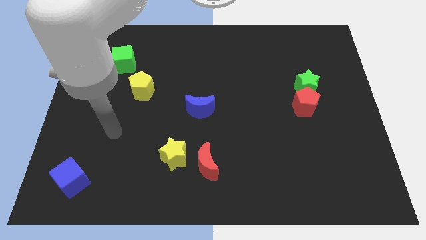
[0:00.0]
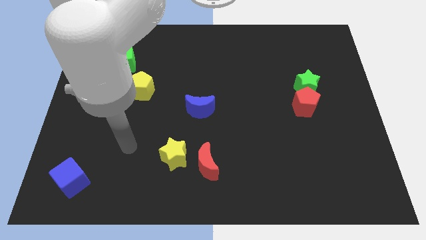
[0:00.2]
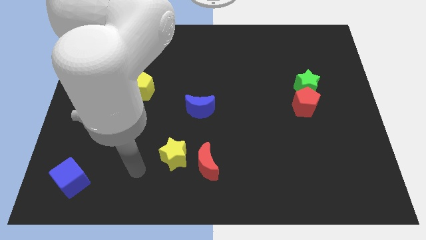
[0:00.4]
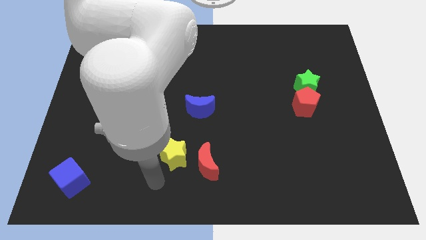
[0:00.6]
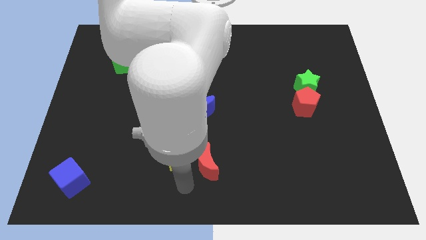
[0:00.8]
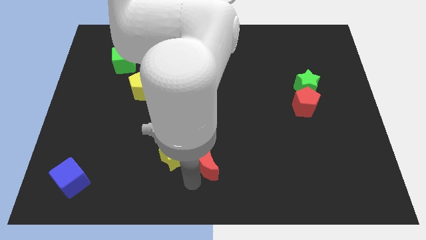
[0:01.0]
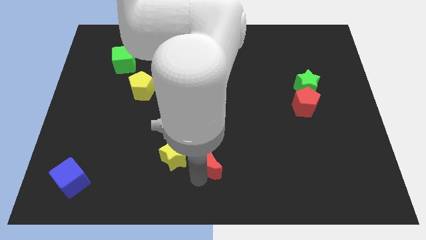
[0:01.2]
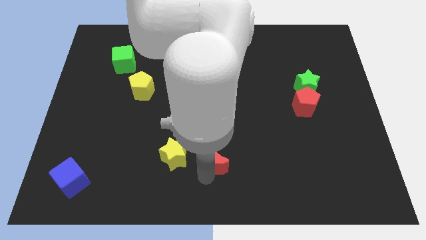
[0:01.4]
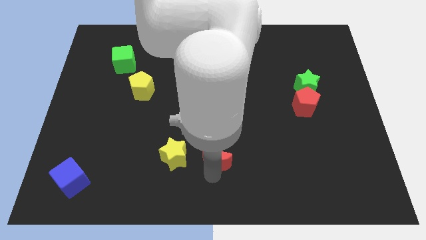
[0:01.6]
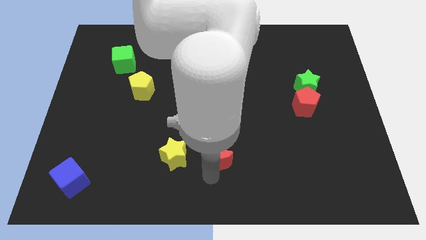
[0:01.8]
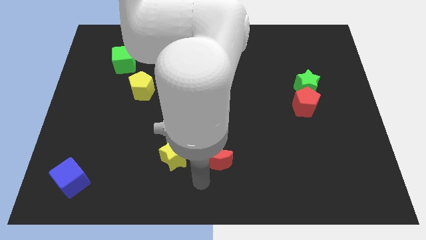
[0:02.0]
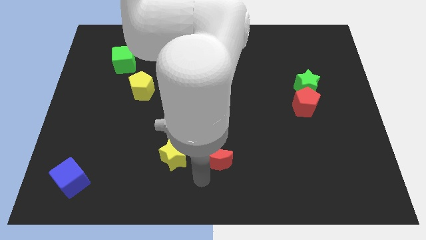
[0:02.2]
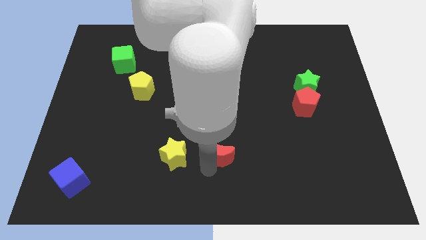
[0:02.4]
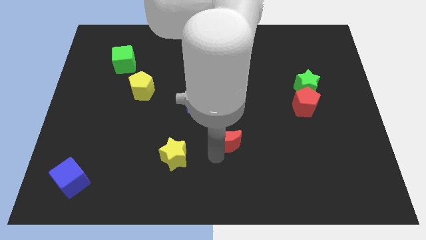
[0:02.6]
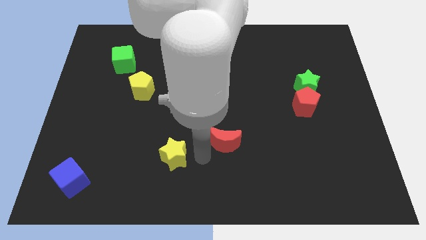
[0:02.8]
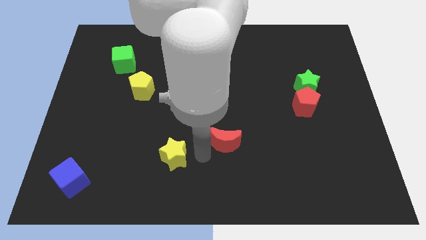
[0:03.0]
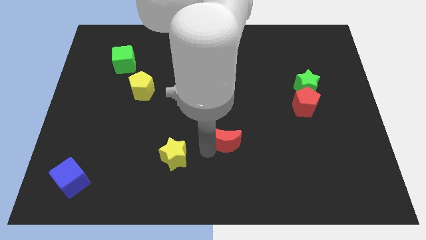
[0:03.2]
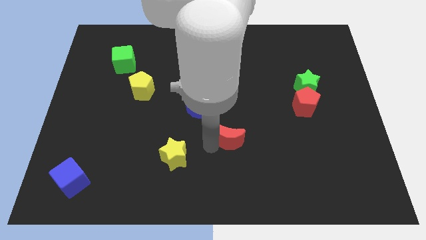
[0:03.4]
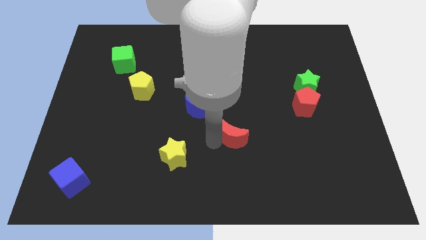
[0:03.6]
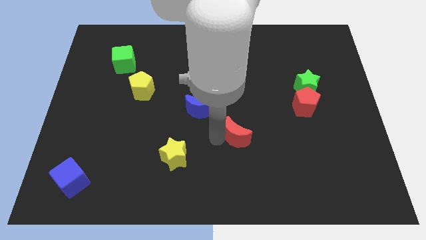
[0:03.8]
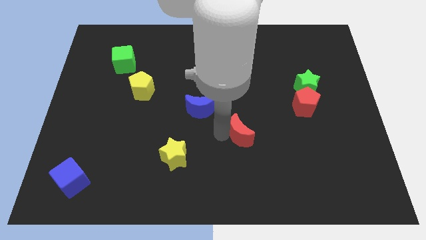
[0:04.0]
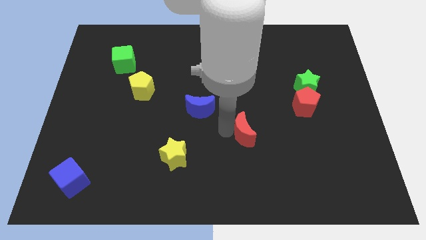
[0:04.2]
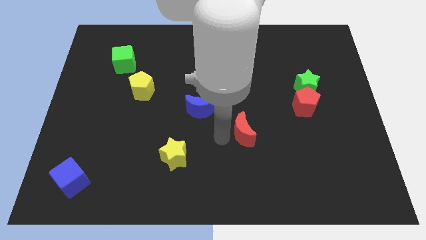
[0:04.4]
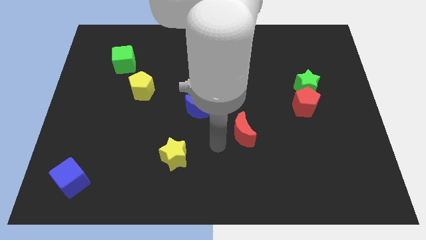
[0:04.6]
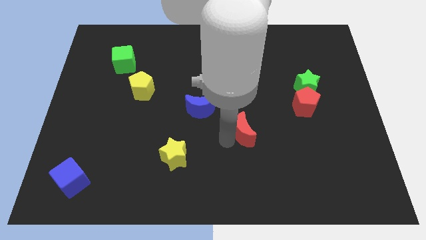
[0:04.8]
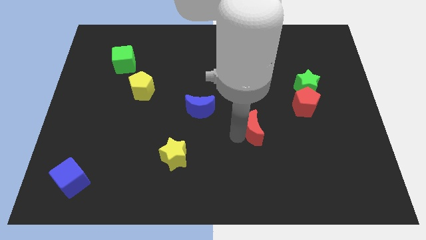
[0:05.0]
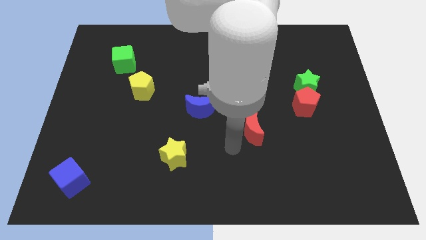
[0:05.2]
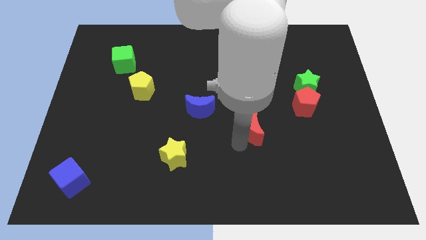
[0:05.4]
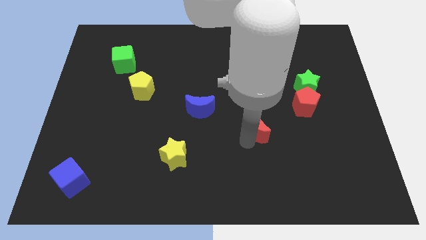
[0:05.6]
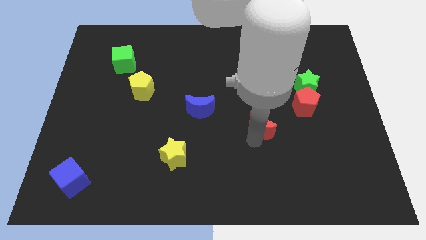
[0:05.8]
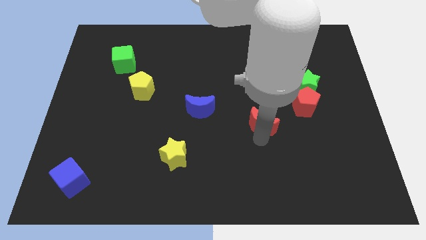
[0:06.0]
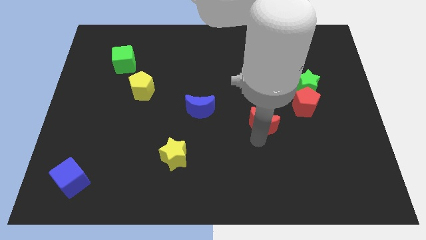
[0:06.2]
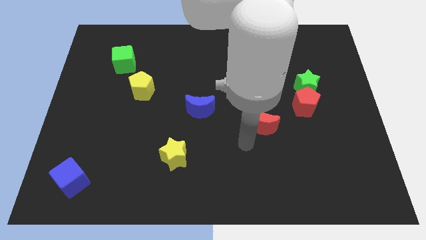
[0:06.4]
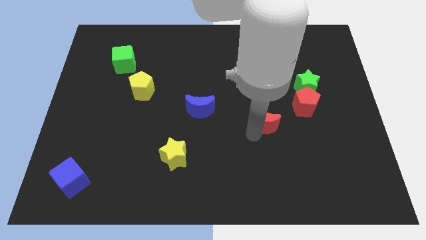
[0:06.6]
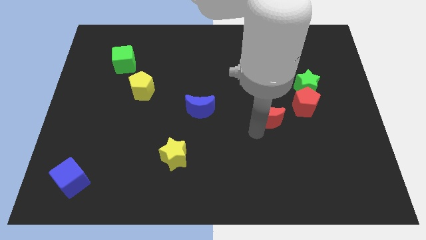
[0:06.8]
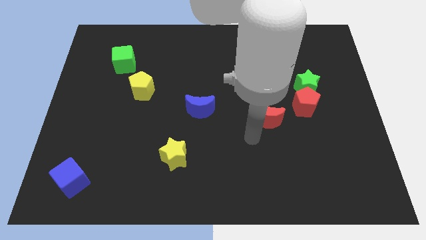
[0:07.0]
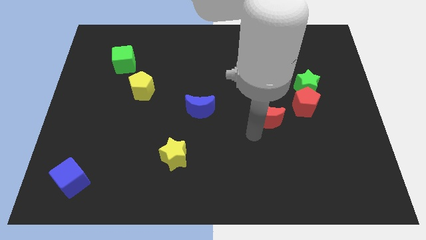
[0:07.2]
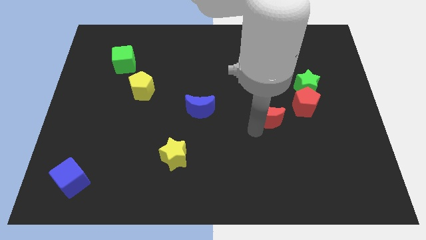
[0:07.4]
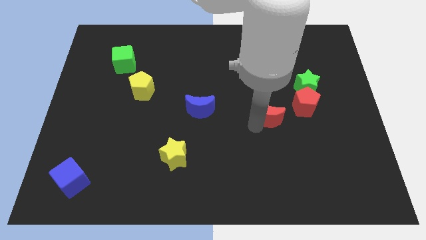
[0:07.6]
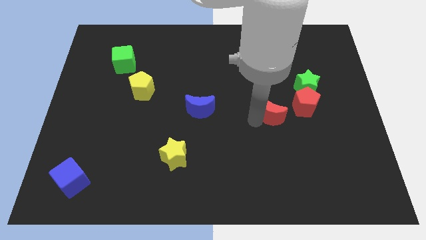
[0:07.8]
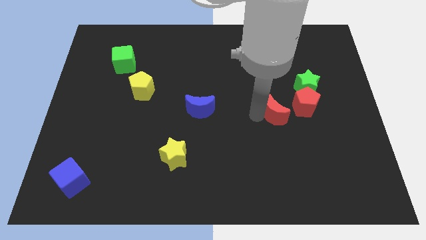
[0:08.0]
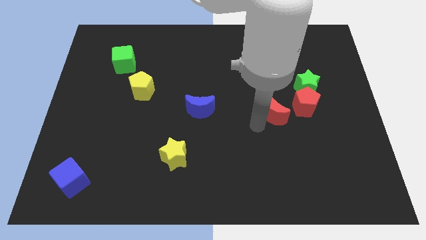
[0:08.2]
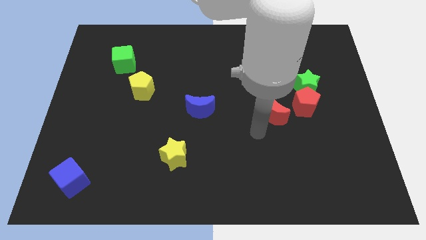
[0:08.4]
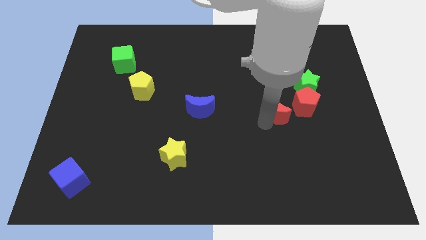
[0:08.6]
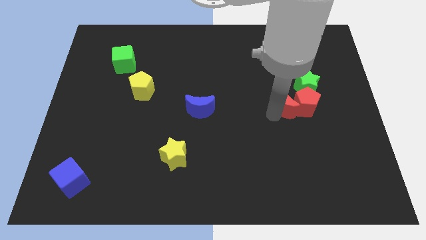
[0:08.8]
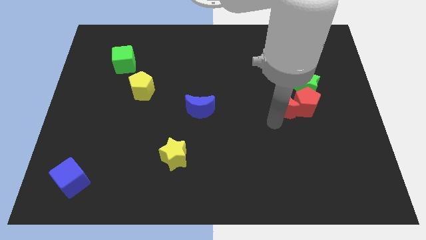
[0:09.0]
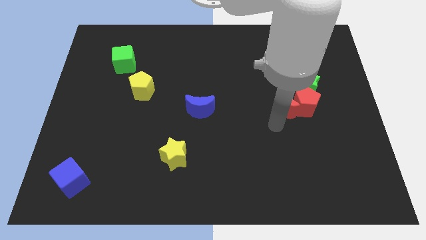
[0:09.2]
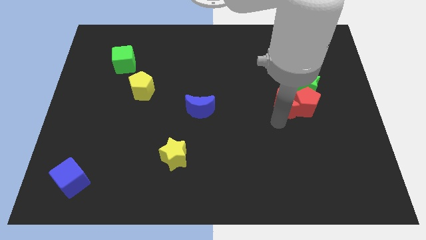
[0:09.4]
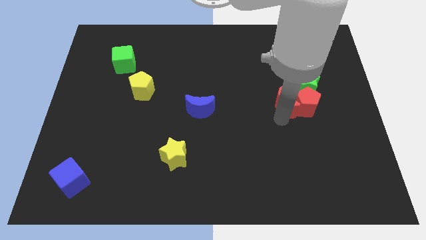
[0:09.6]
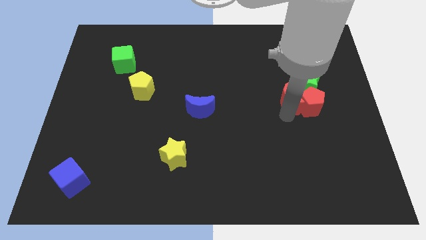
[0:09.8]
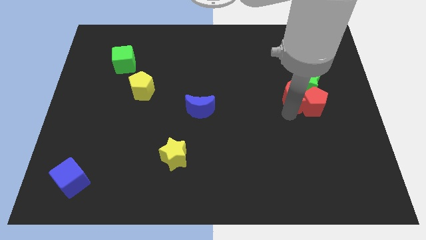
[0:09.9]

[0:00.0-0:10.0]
push the red moon towards the green star

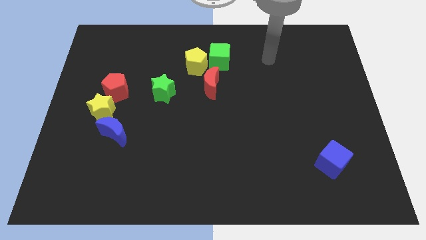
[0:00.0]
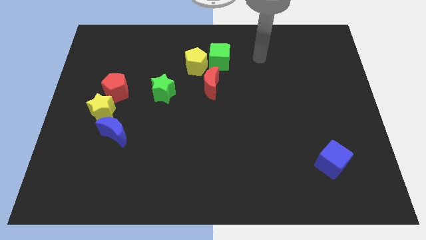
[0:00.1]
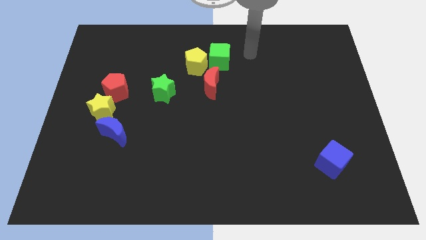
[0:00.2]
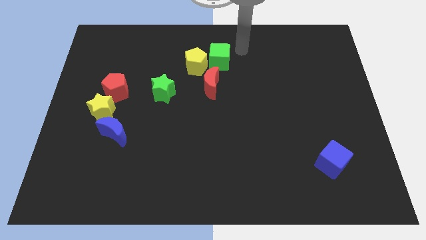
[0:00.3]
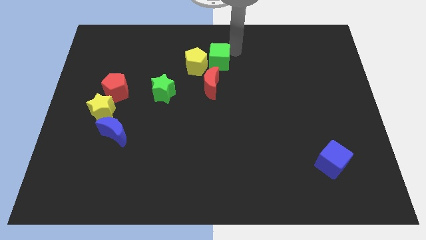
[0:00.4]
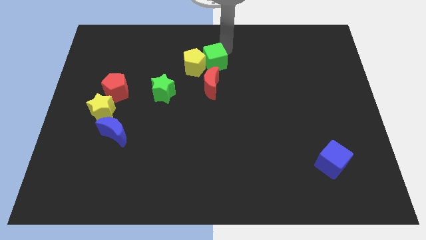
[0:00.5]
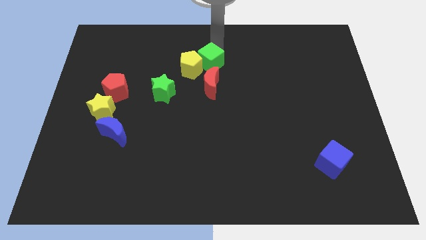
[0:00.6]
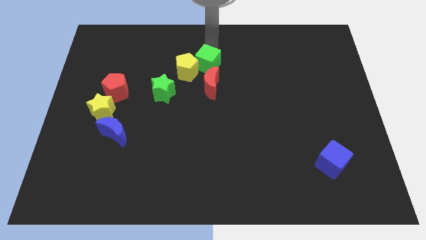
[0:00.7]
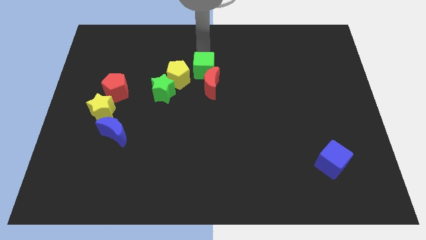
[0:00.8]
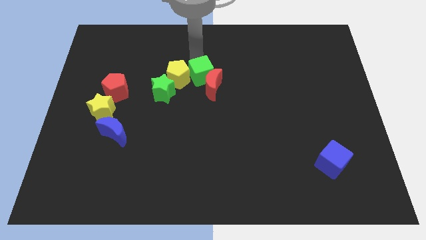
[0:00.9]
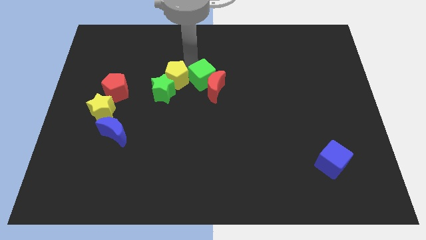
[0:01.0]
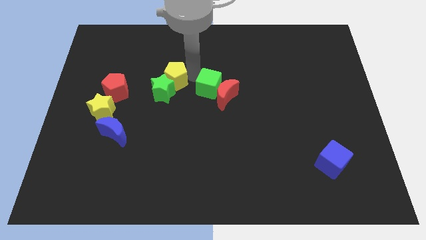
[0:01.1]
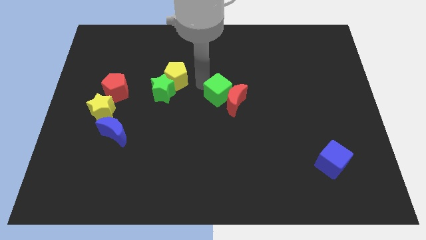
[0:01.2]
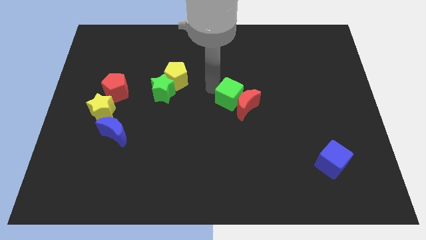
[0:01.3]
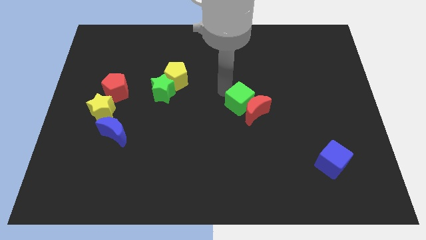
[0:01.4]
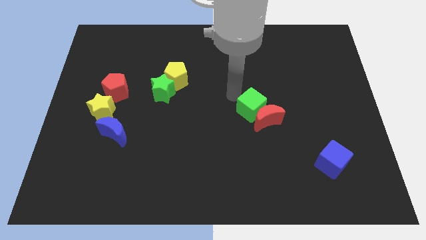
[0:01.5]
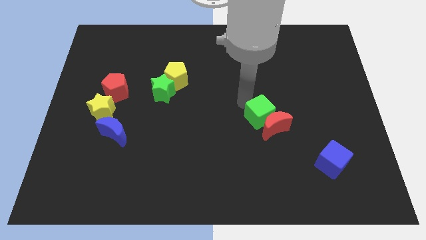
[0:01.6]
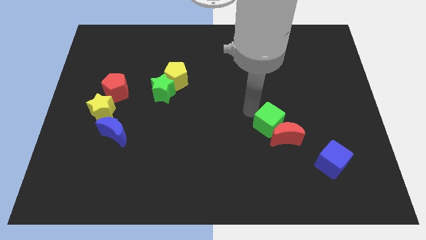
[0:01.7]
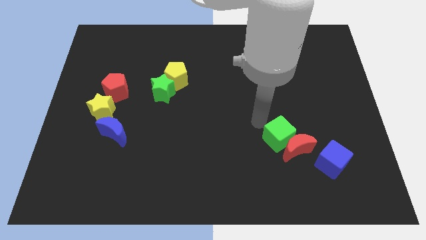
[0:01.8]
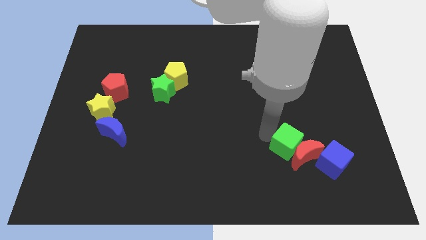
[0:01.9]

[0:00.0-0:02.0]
slide the red moon close to the blue cube

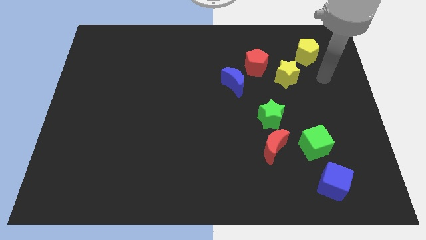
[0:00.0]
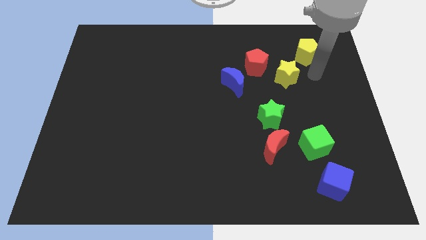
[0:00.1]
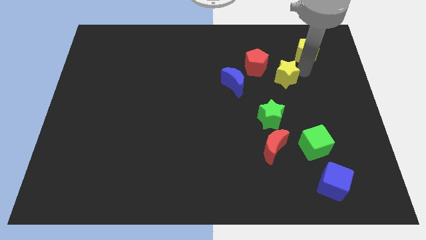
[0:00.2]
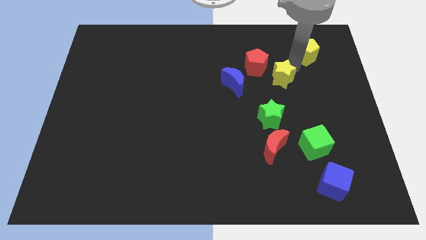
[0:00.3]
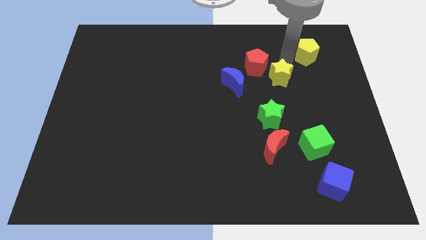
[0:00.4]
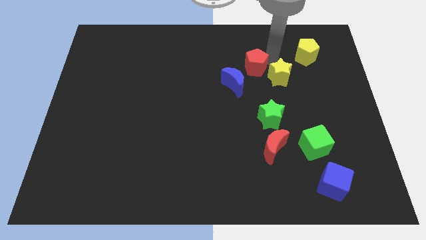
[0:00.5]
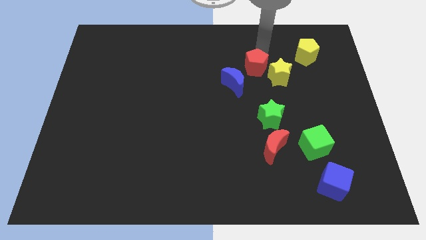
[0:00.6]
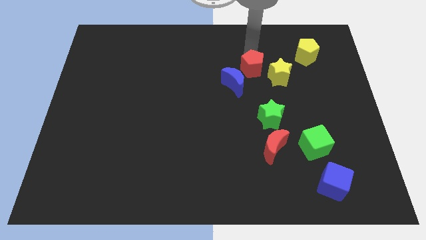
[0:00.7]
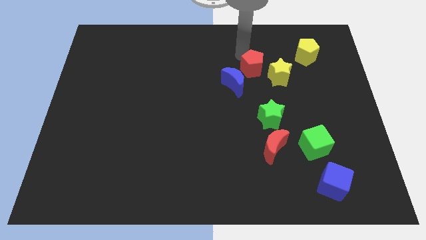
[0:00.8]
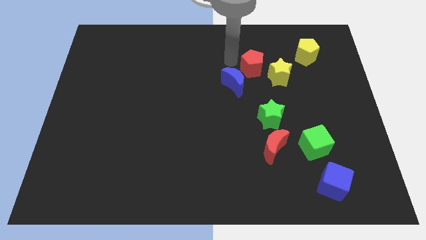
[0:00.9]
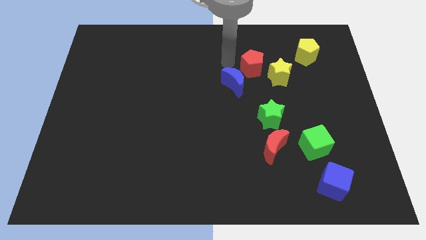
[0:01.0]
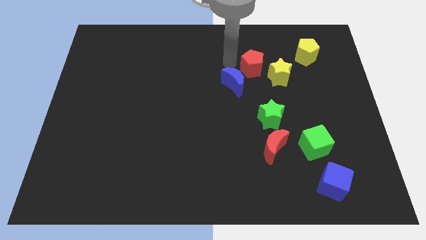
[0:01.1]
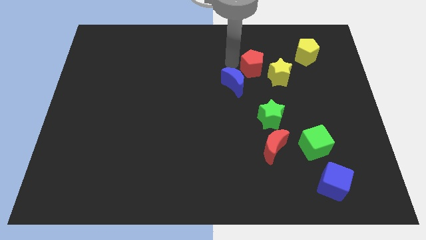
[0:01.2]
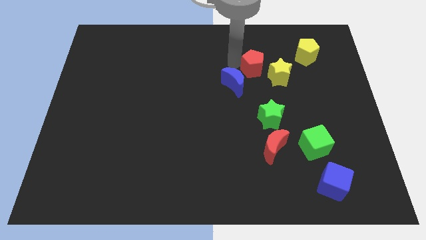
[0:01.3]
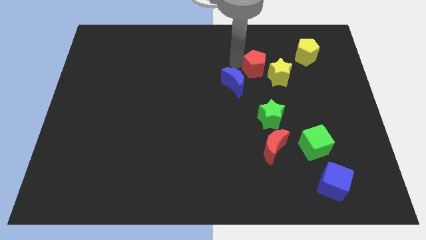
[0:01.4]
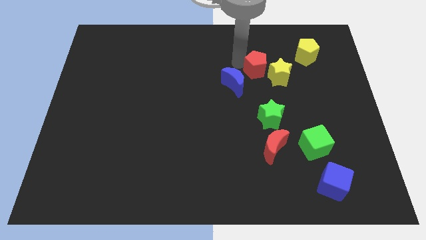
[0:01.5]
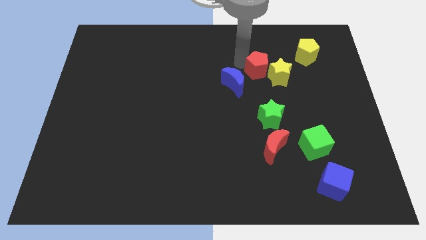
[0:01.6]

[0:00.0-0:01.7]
put the red pentagon next to the yellow star
